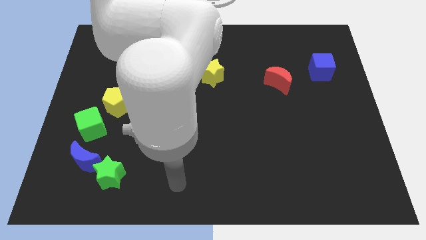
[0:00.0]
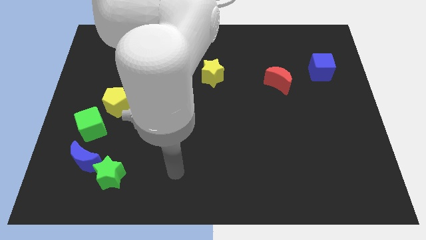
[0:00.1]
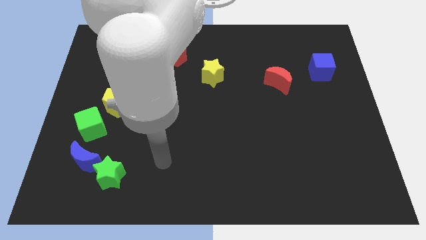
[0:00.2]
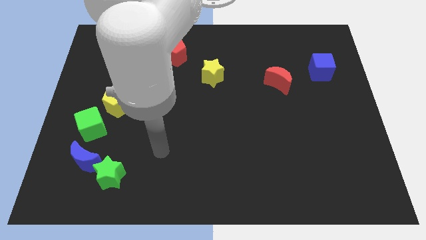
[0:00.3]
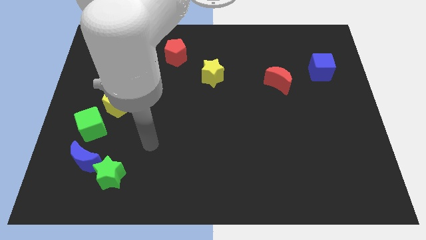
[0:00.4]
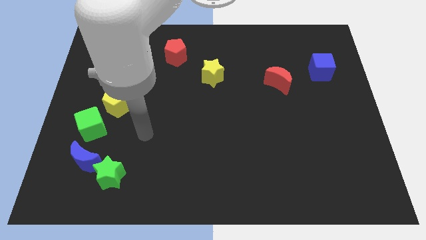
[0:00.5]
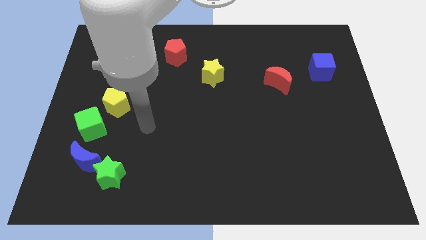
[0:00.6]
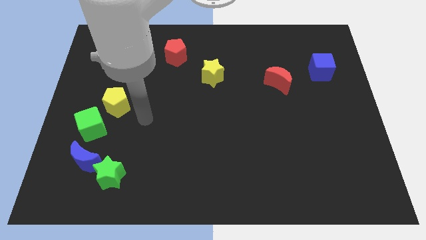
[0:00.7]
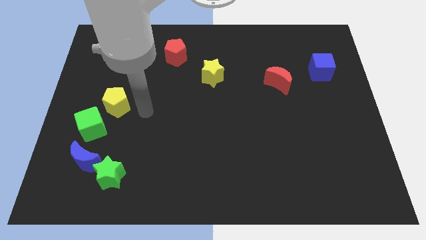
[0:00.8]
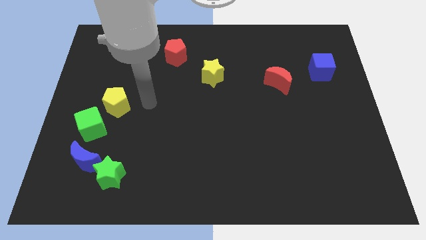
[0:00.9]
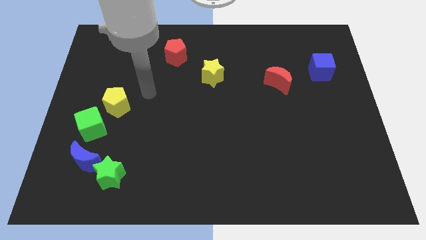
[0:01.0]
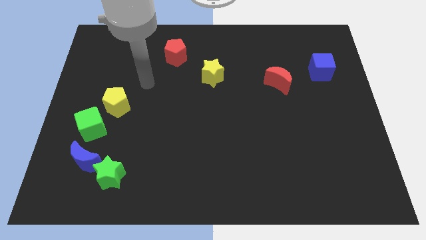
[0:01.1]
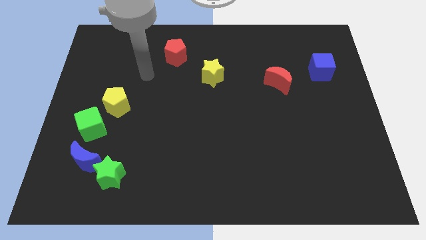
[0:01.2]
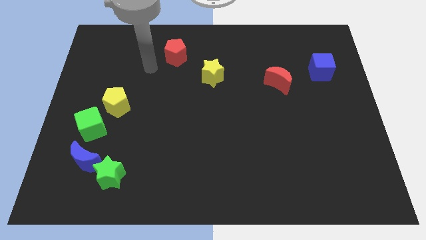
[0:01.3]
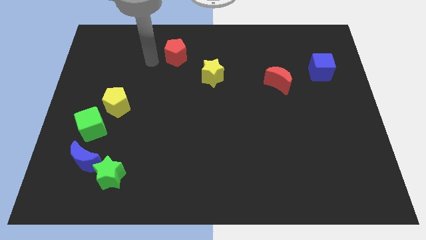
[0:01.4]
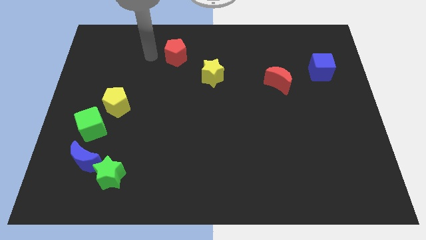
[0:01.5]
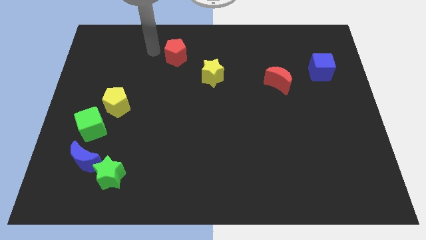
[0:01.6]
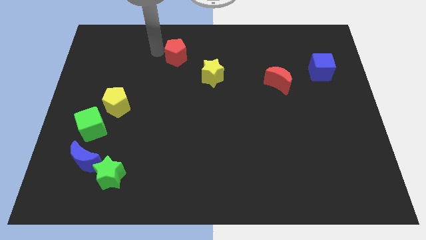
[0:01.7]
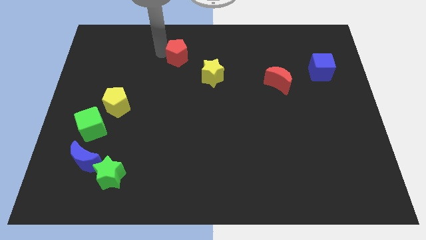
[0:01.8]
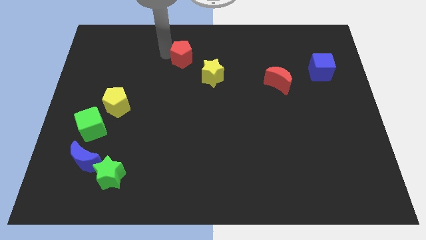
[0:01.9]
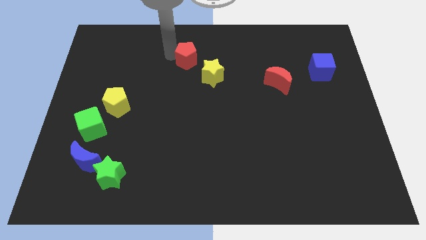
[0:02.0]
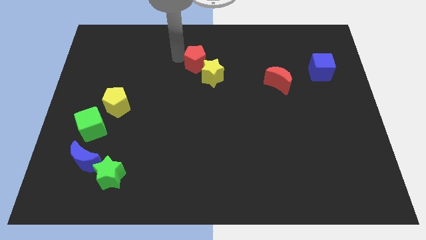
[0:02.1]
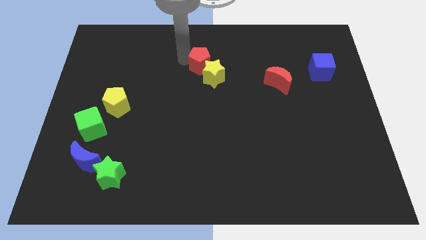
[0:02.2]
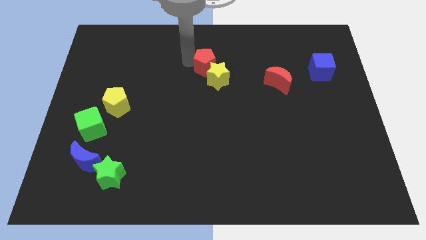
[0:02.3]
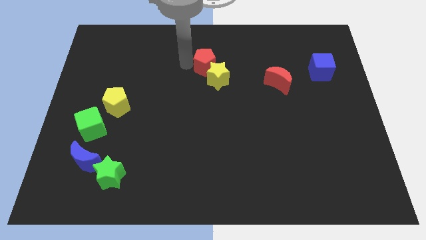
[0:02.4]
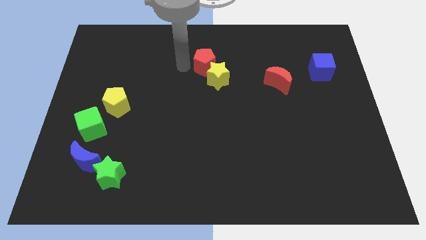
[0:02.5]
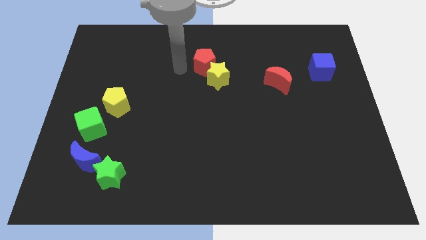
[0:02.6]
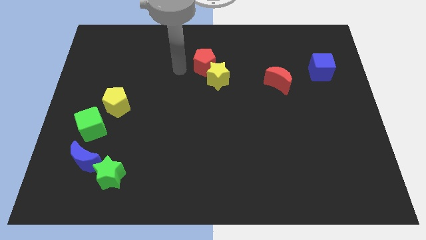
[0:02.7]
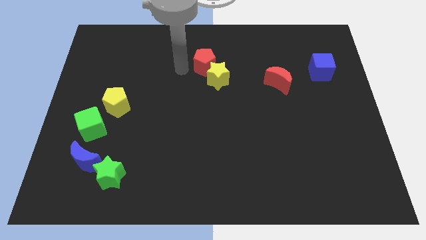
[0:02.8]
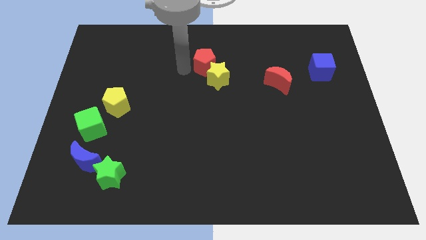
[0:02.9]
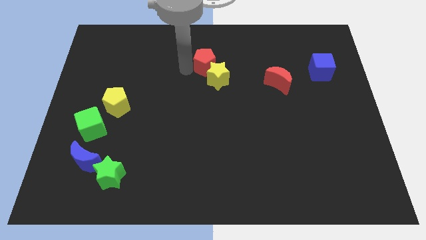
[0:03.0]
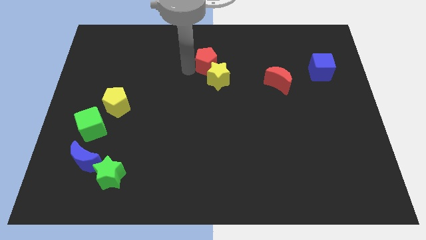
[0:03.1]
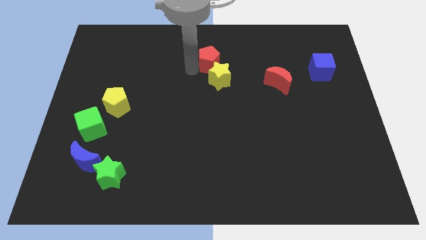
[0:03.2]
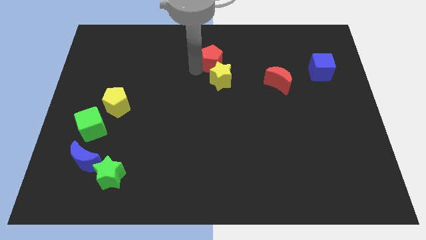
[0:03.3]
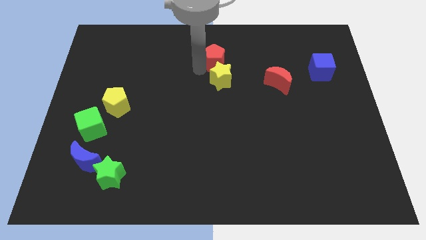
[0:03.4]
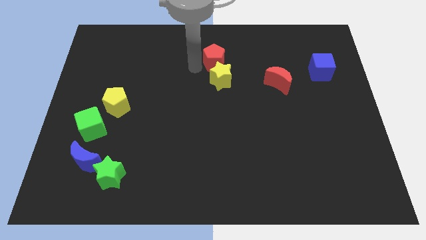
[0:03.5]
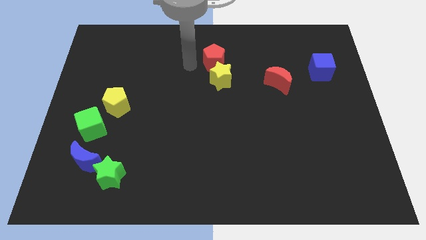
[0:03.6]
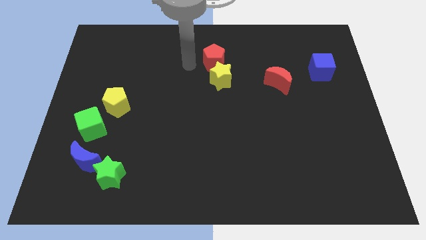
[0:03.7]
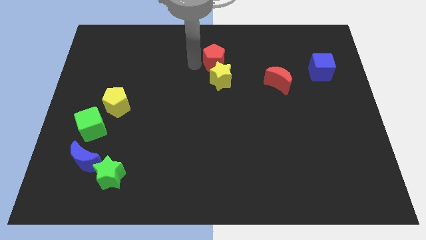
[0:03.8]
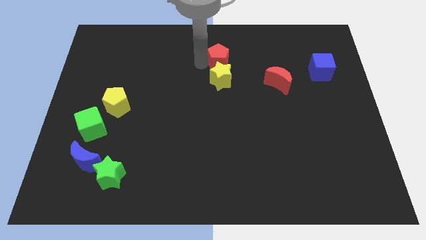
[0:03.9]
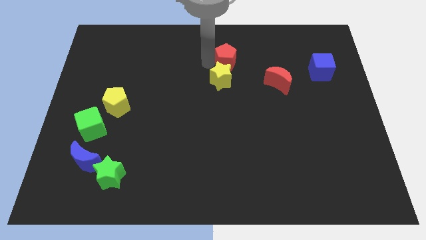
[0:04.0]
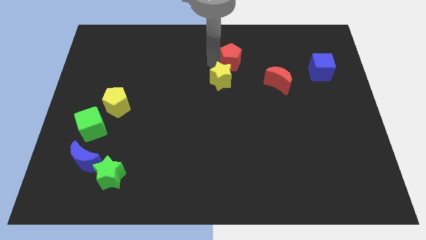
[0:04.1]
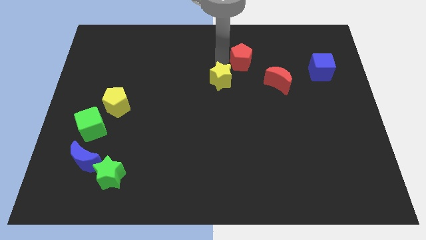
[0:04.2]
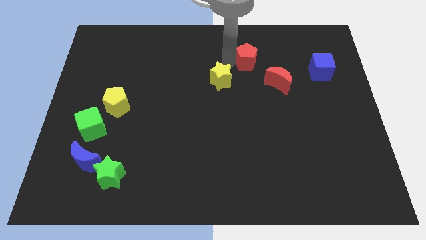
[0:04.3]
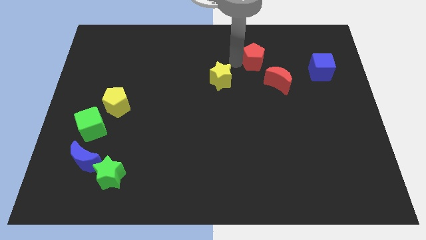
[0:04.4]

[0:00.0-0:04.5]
slide the red pentagon right

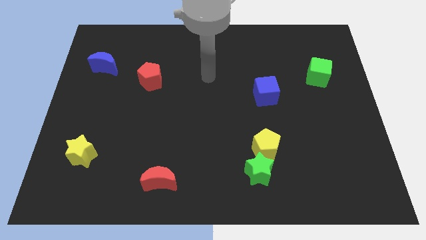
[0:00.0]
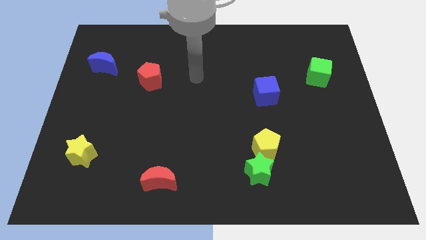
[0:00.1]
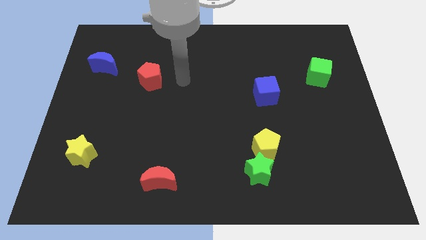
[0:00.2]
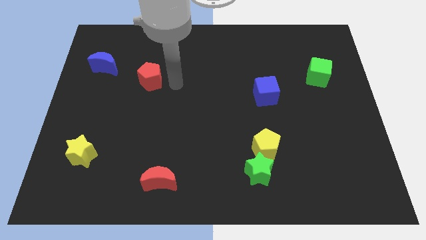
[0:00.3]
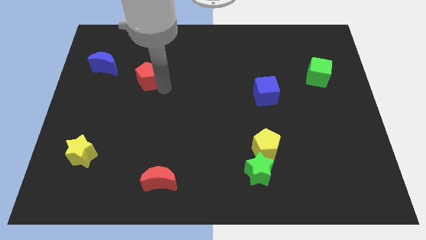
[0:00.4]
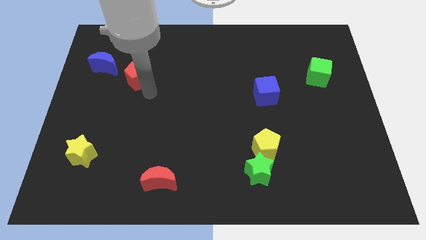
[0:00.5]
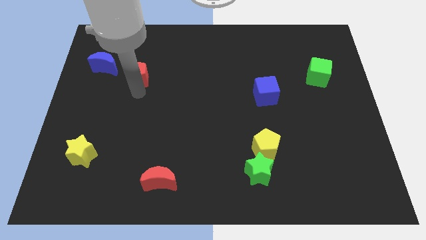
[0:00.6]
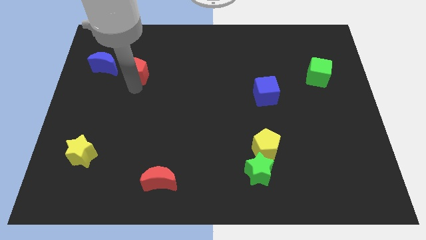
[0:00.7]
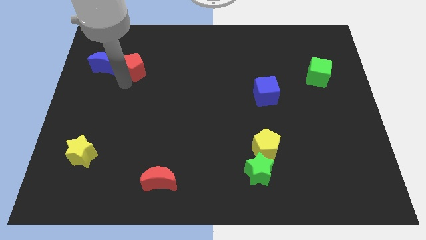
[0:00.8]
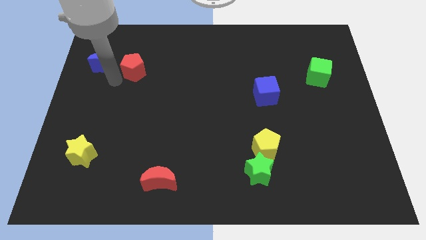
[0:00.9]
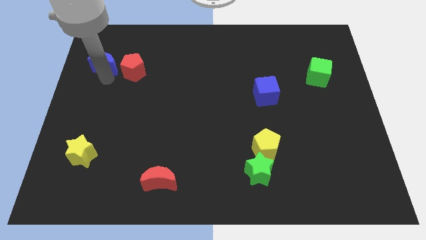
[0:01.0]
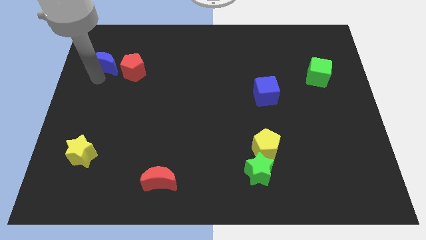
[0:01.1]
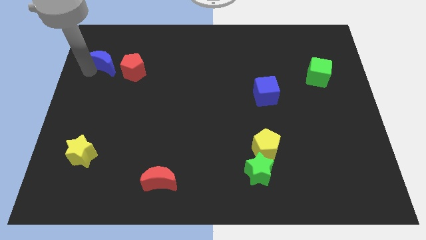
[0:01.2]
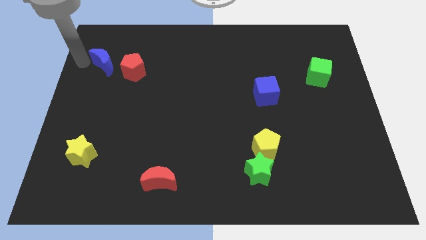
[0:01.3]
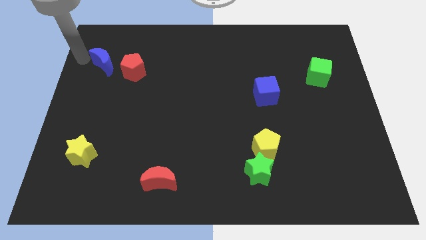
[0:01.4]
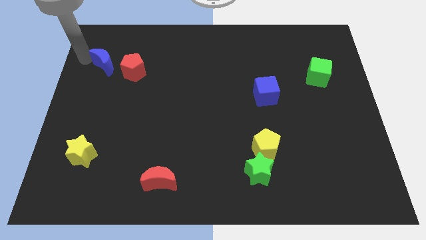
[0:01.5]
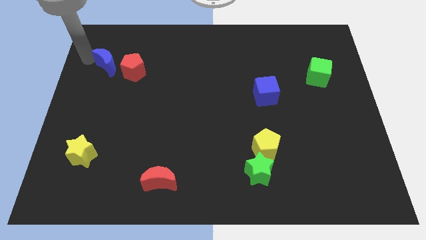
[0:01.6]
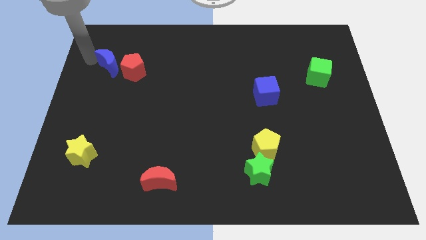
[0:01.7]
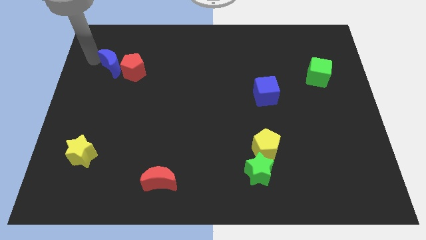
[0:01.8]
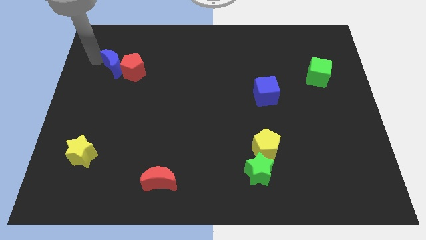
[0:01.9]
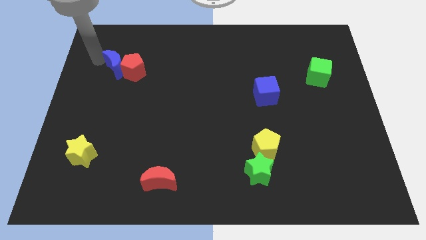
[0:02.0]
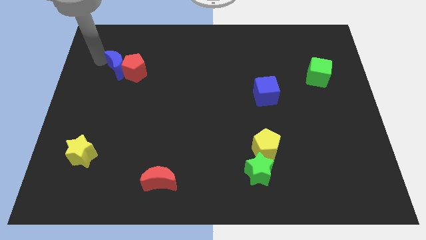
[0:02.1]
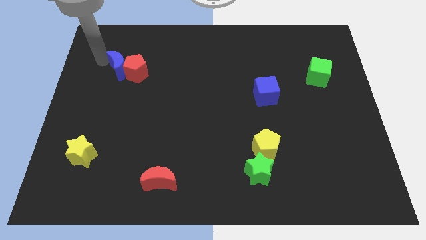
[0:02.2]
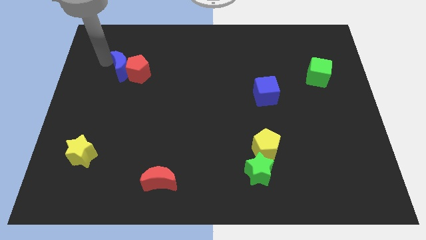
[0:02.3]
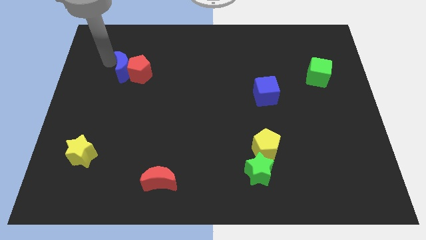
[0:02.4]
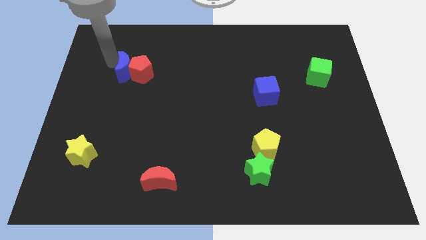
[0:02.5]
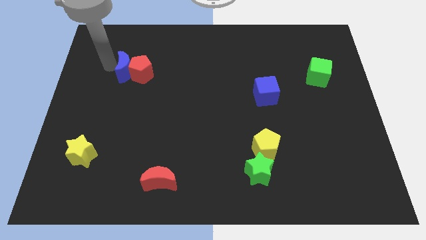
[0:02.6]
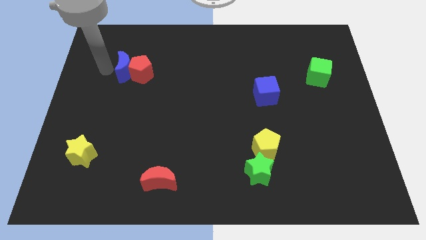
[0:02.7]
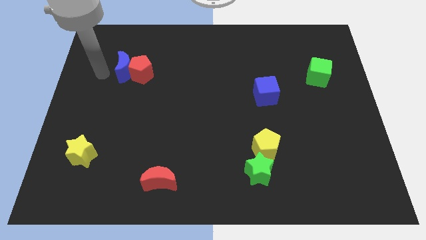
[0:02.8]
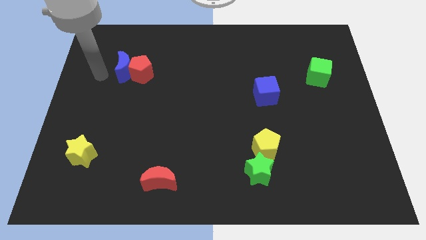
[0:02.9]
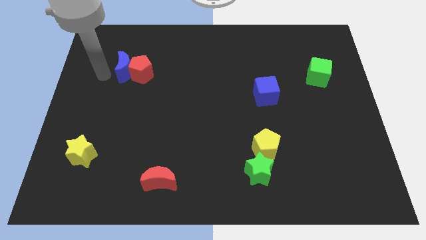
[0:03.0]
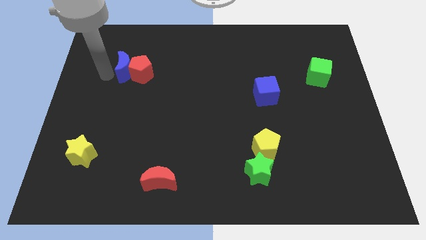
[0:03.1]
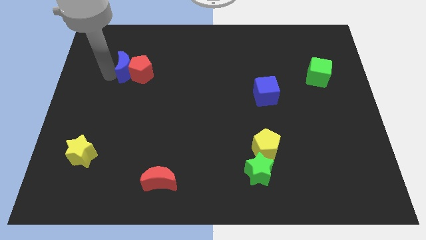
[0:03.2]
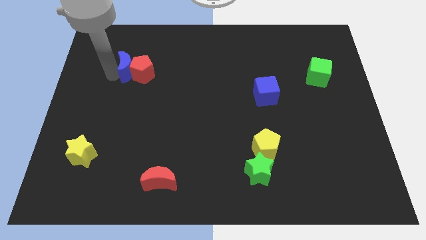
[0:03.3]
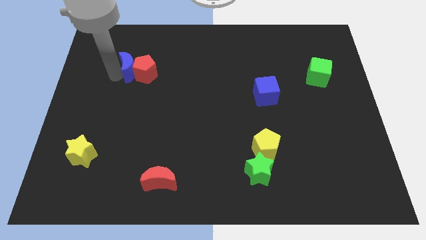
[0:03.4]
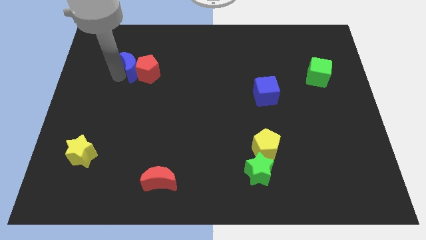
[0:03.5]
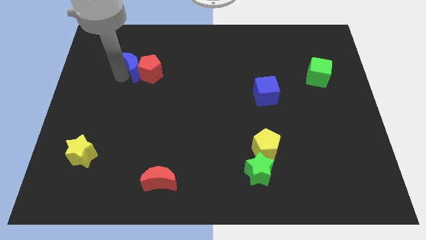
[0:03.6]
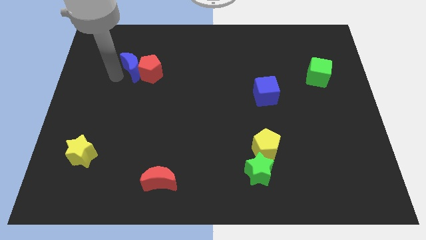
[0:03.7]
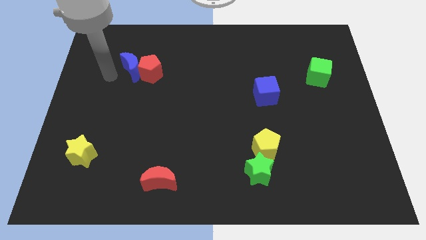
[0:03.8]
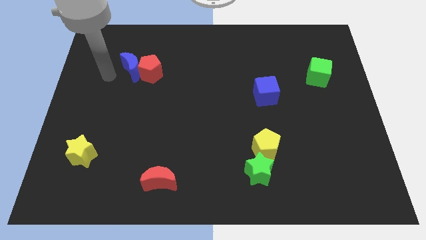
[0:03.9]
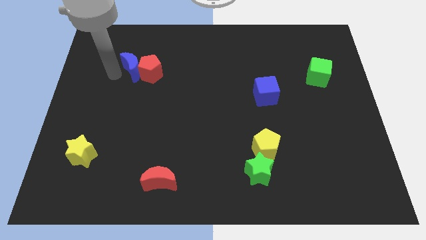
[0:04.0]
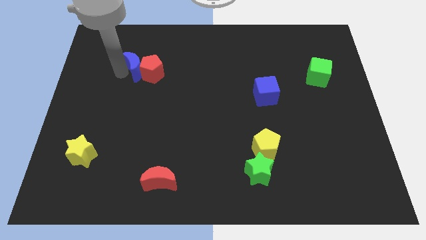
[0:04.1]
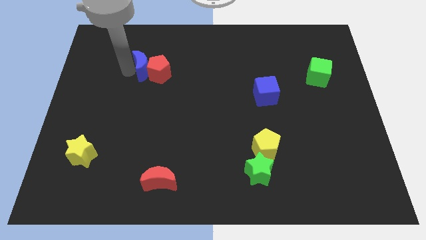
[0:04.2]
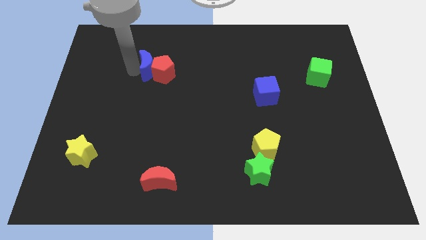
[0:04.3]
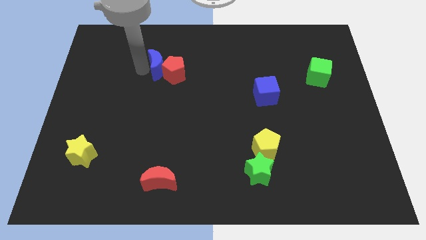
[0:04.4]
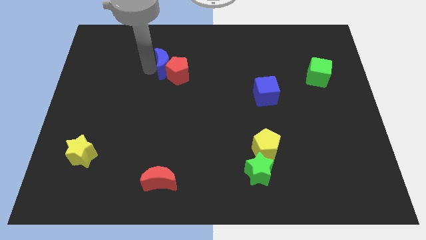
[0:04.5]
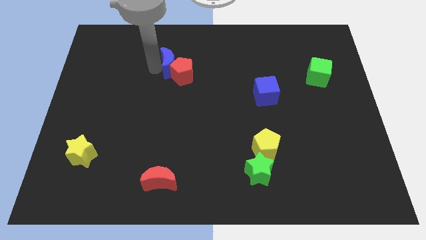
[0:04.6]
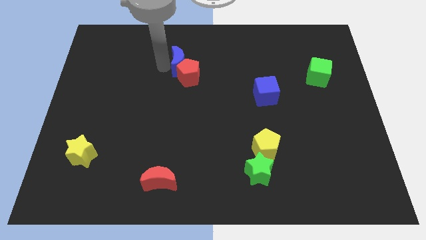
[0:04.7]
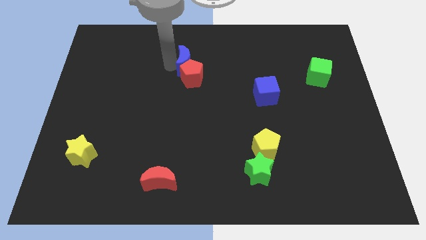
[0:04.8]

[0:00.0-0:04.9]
move the blue moon to the right
